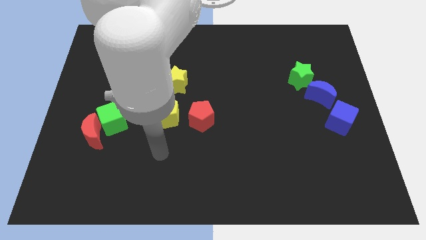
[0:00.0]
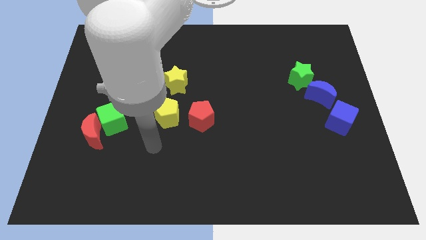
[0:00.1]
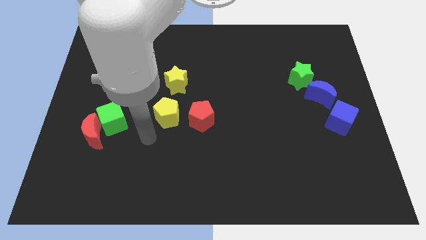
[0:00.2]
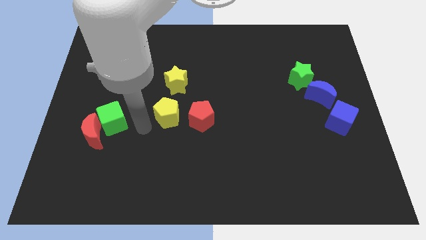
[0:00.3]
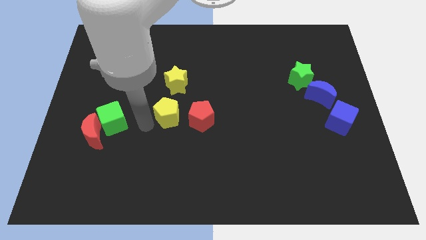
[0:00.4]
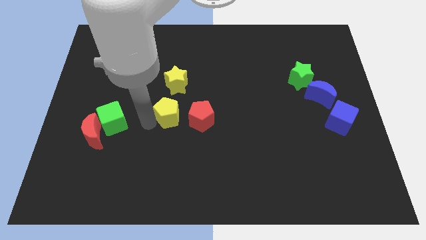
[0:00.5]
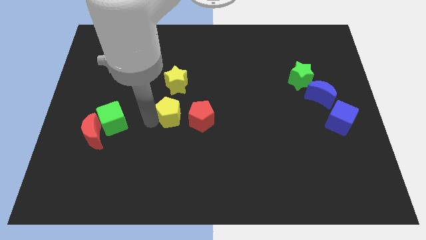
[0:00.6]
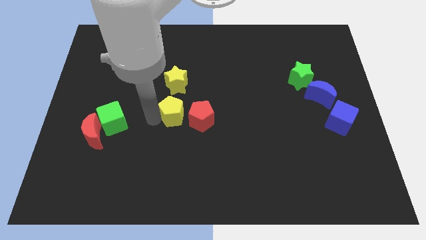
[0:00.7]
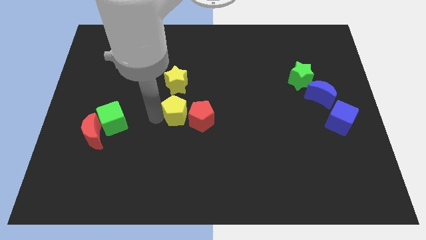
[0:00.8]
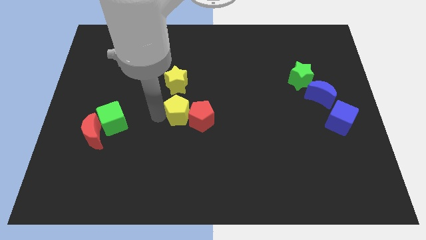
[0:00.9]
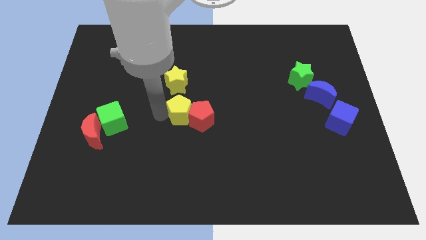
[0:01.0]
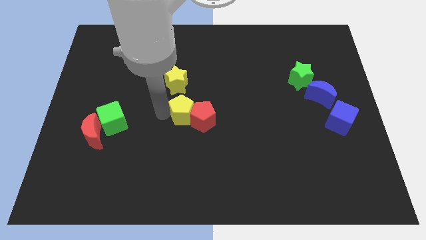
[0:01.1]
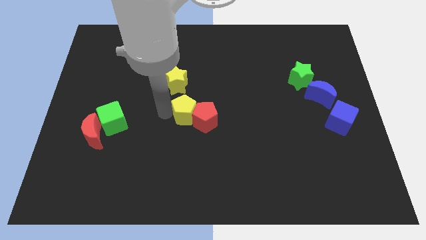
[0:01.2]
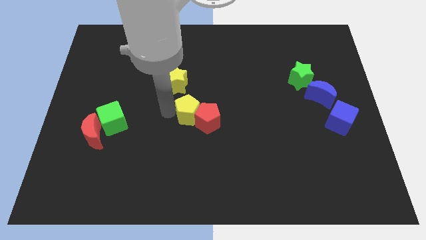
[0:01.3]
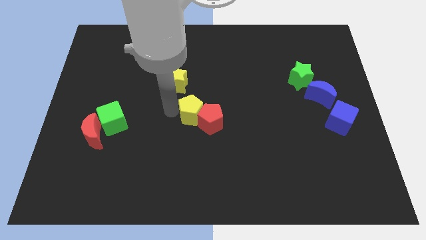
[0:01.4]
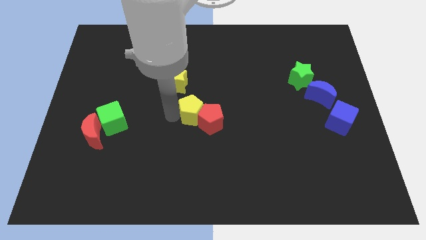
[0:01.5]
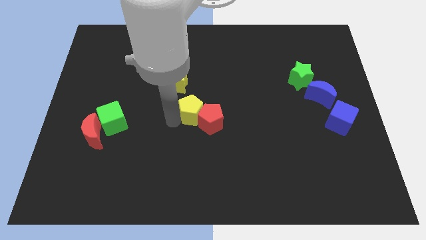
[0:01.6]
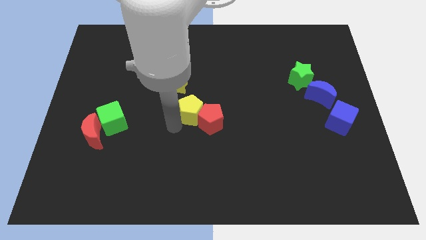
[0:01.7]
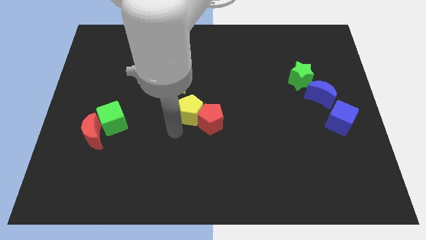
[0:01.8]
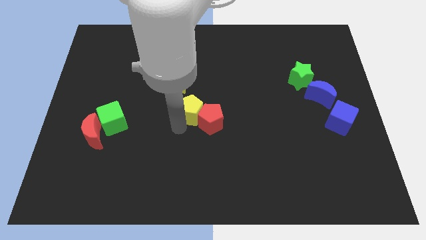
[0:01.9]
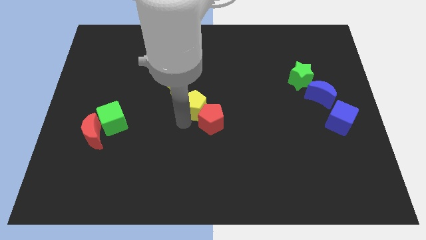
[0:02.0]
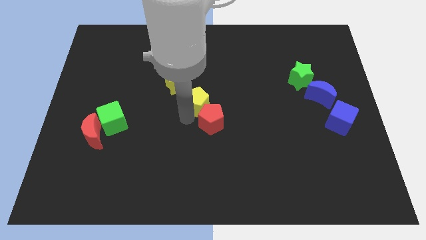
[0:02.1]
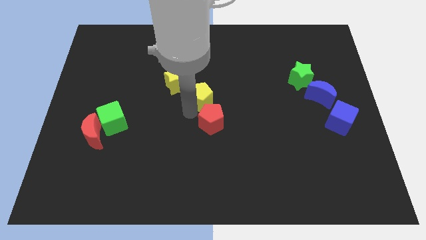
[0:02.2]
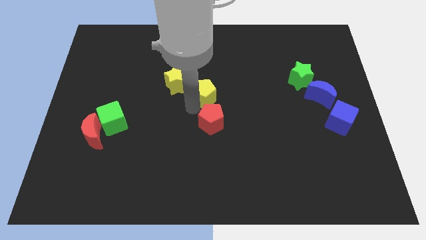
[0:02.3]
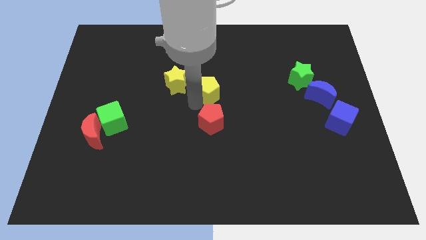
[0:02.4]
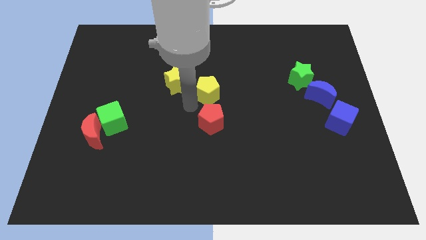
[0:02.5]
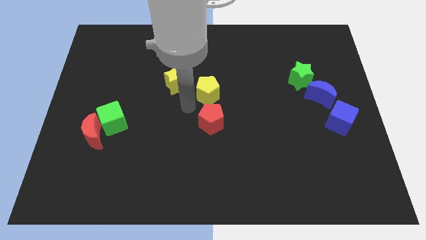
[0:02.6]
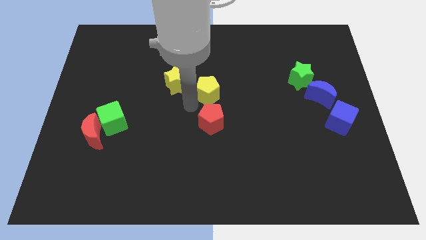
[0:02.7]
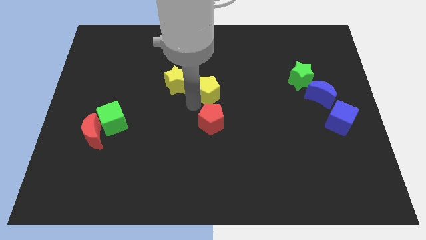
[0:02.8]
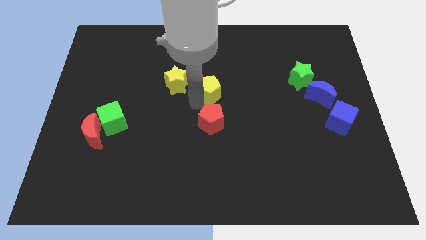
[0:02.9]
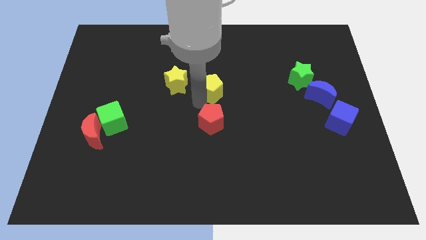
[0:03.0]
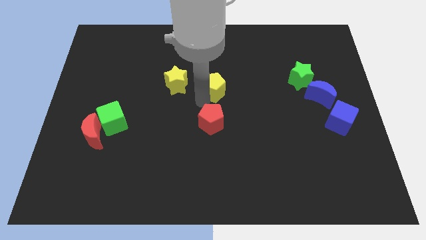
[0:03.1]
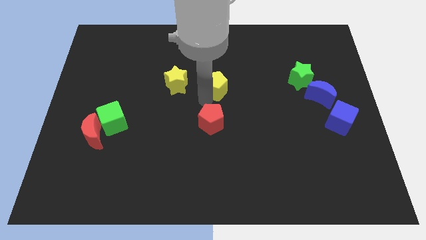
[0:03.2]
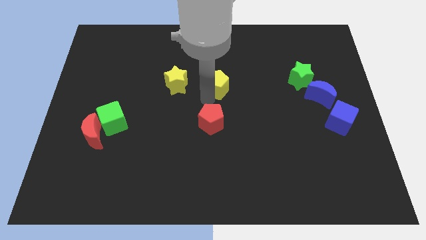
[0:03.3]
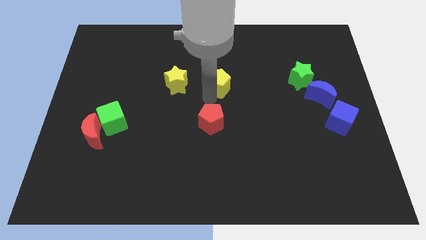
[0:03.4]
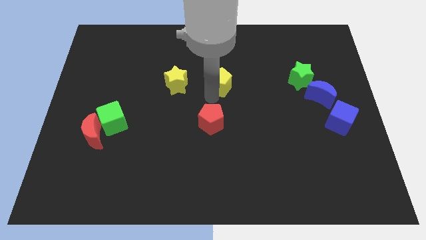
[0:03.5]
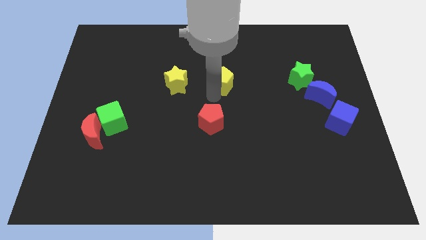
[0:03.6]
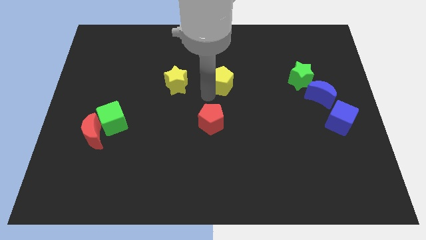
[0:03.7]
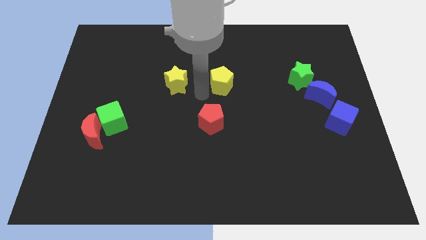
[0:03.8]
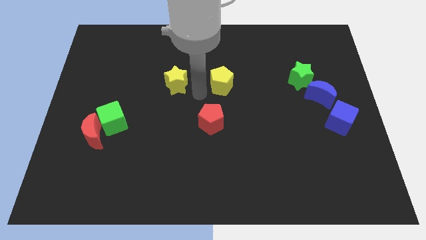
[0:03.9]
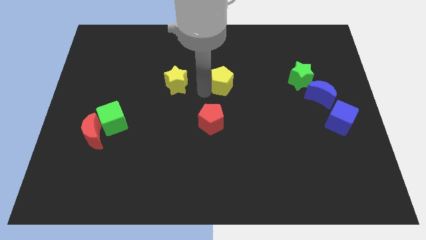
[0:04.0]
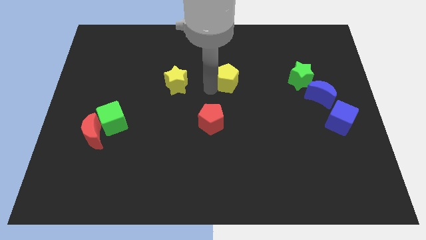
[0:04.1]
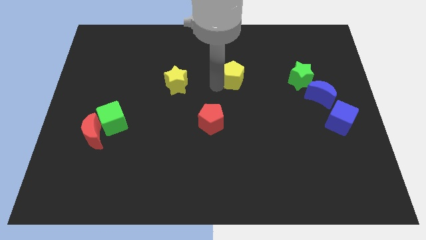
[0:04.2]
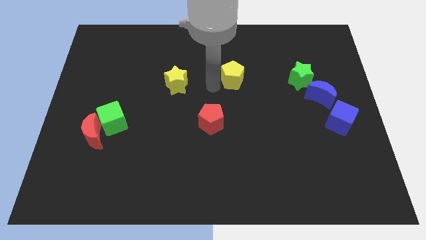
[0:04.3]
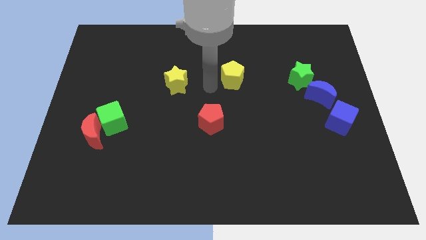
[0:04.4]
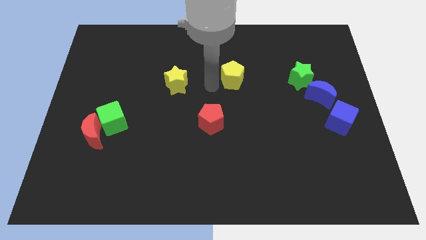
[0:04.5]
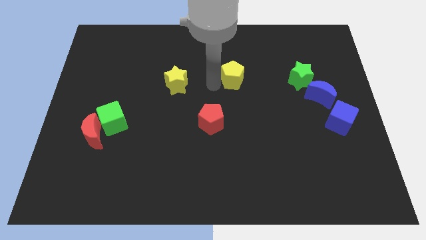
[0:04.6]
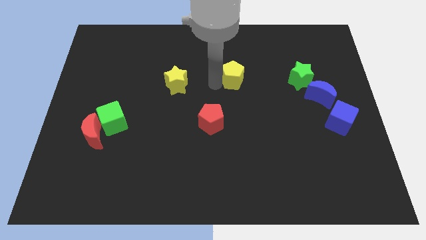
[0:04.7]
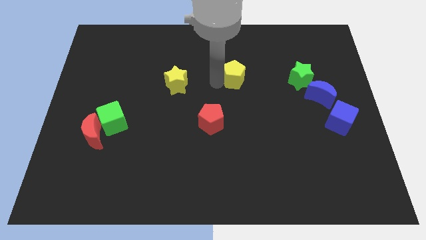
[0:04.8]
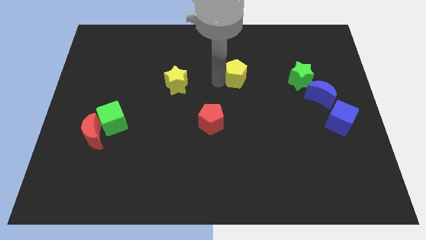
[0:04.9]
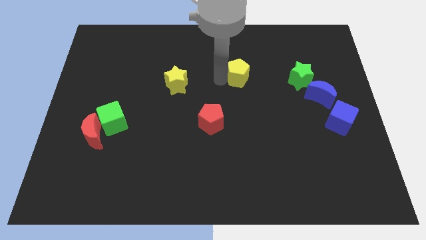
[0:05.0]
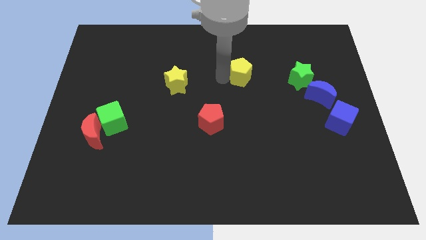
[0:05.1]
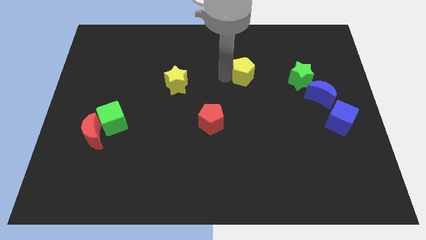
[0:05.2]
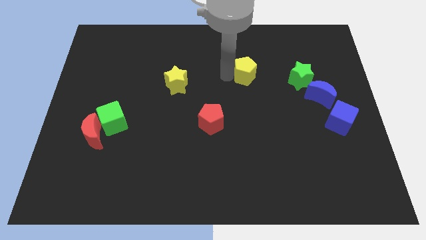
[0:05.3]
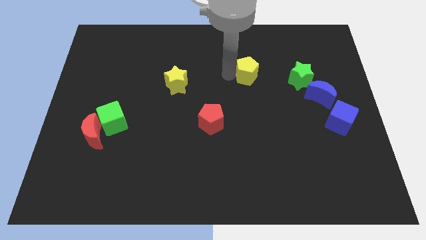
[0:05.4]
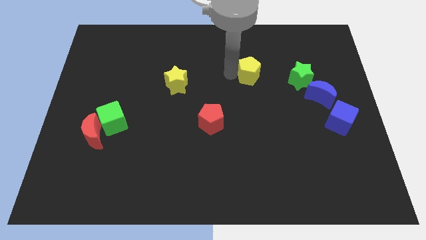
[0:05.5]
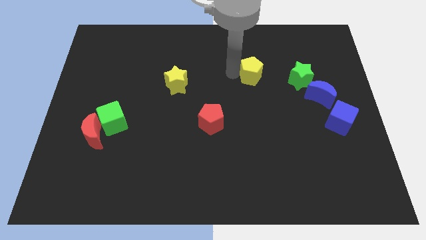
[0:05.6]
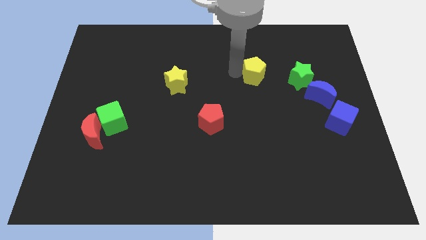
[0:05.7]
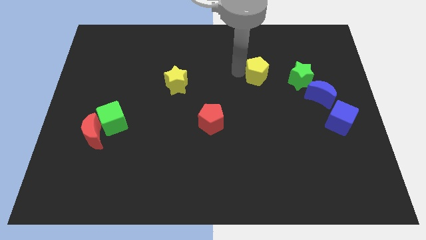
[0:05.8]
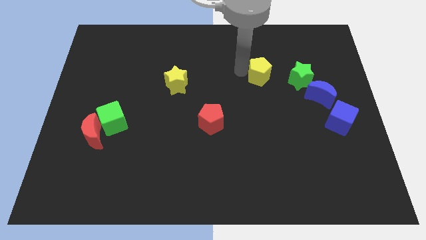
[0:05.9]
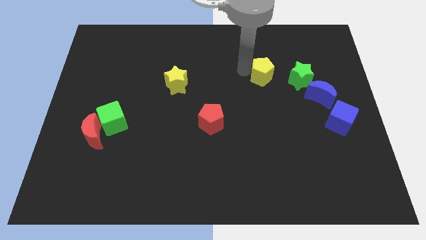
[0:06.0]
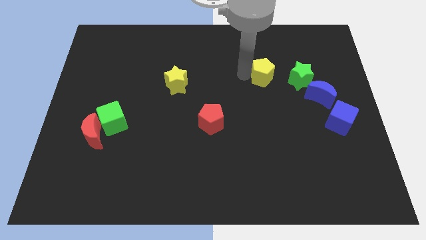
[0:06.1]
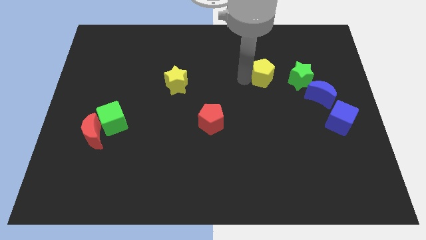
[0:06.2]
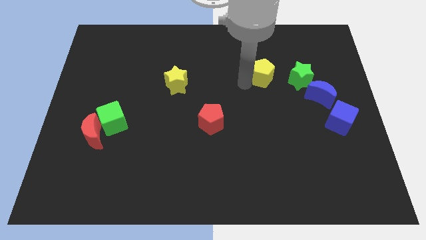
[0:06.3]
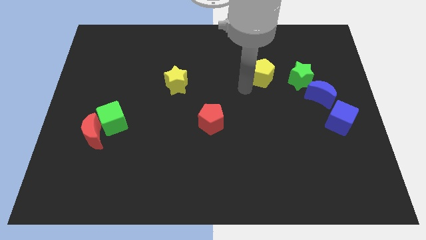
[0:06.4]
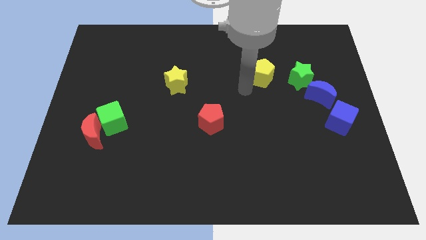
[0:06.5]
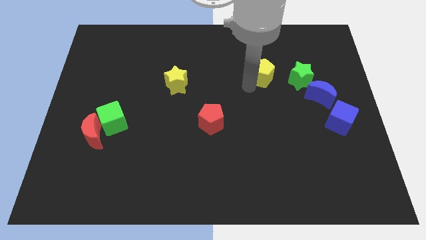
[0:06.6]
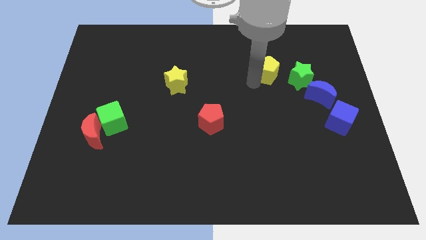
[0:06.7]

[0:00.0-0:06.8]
slide the yellow pentagon diagonally up and to the left of the green star
